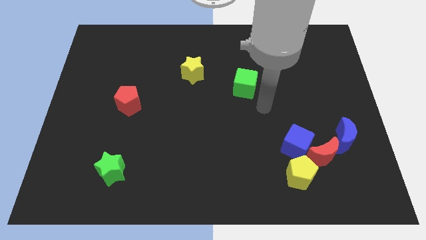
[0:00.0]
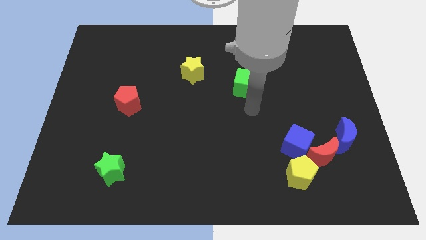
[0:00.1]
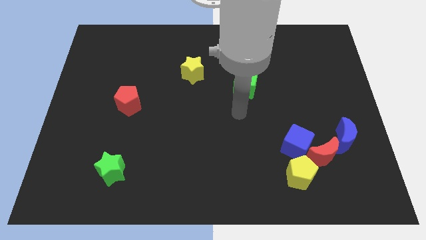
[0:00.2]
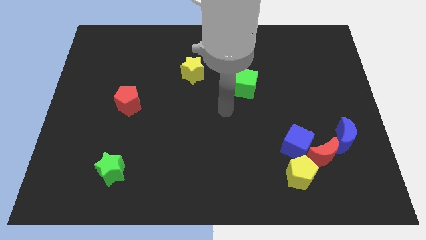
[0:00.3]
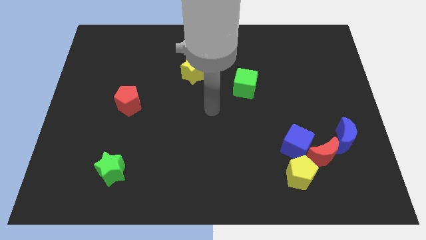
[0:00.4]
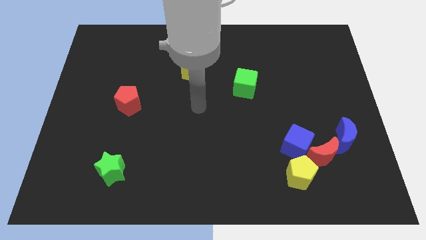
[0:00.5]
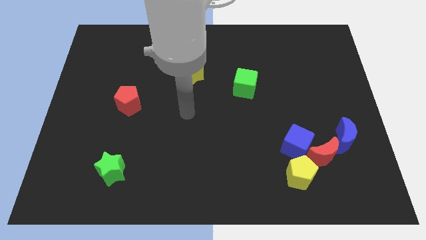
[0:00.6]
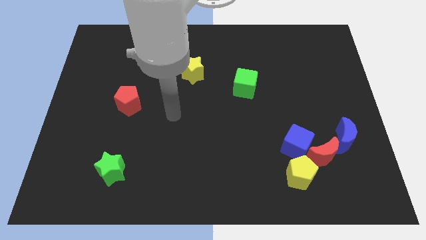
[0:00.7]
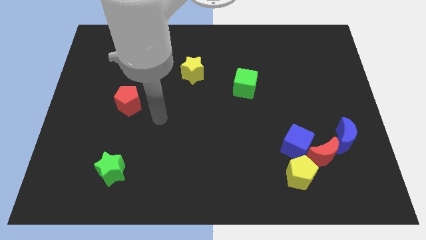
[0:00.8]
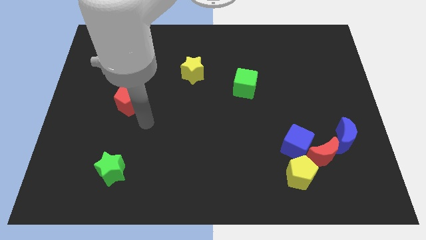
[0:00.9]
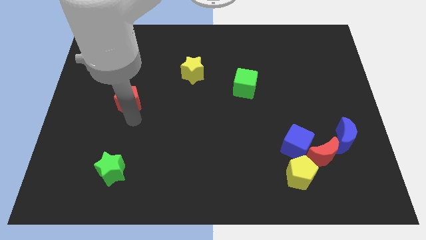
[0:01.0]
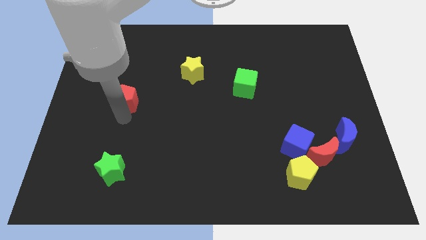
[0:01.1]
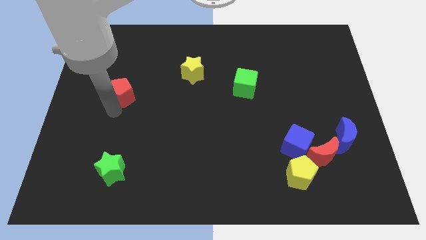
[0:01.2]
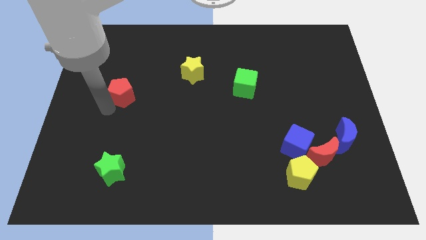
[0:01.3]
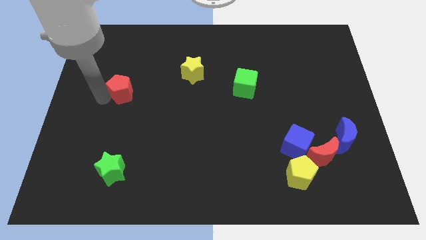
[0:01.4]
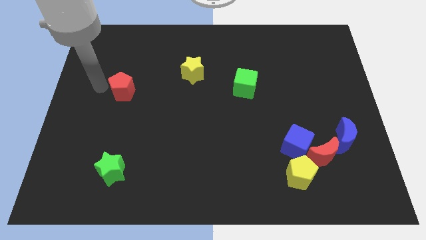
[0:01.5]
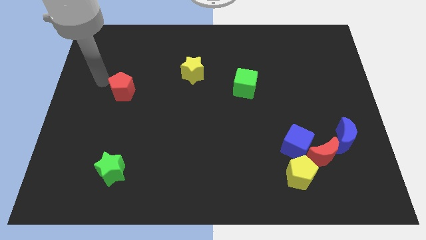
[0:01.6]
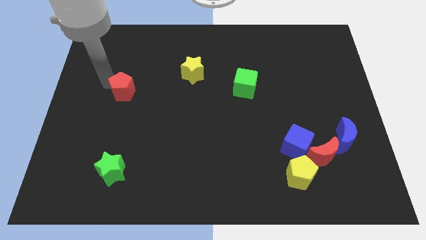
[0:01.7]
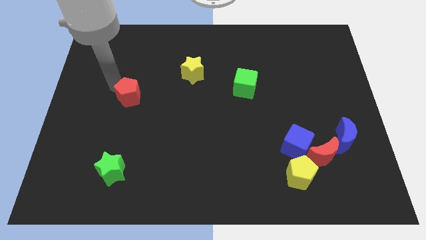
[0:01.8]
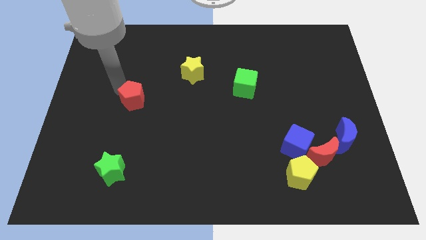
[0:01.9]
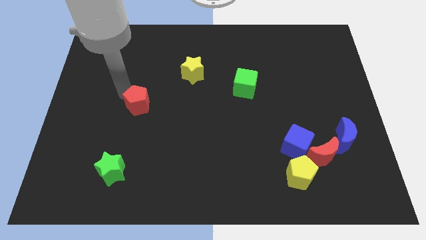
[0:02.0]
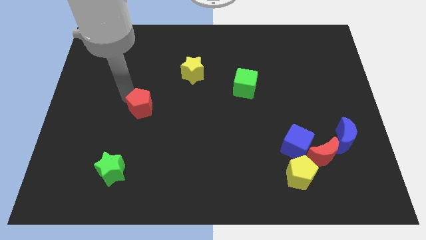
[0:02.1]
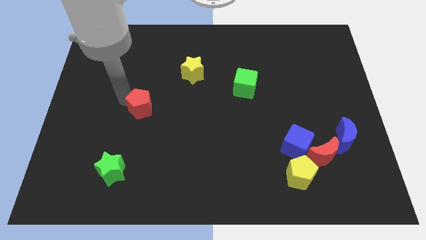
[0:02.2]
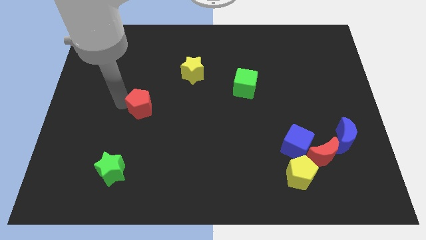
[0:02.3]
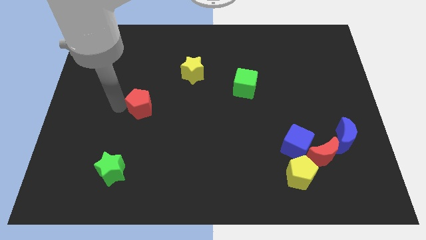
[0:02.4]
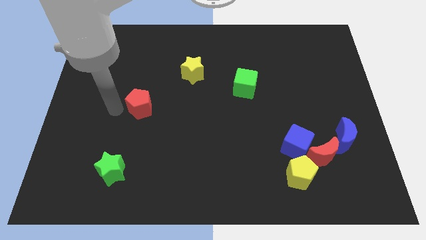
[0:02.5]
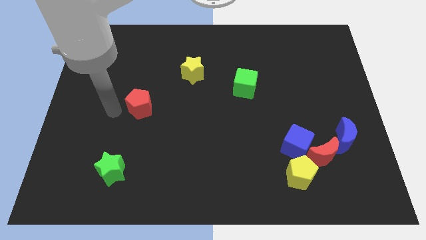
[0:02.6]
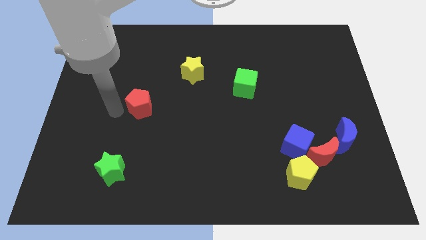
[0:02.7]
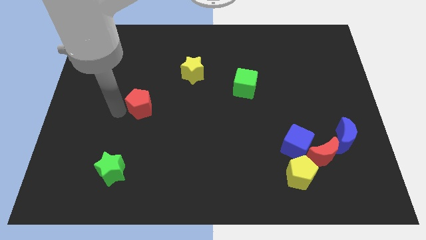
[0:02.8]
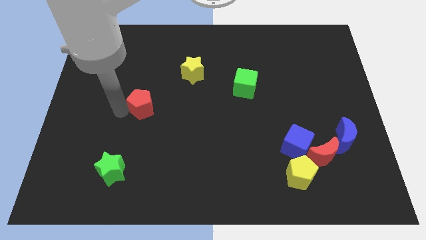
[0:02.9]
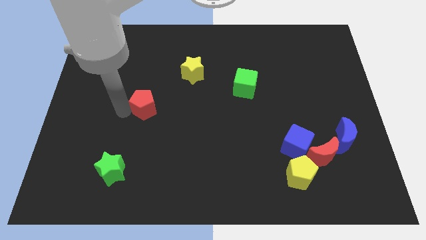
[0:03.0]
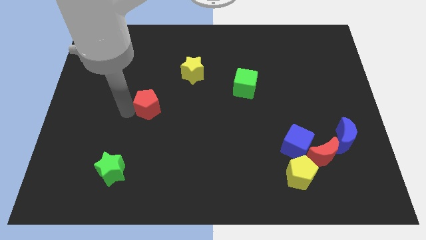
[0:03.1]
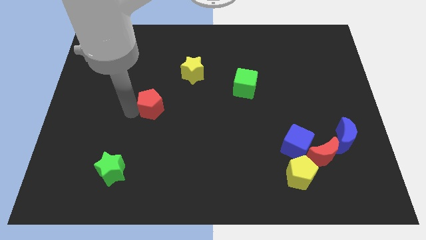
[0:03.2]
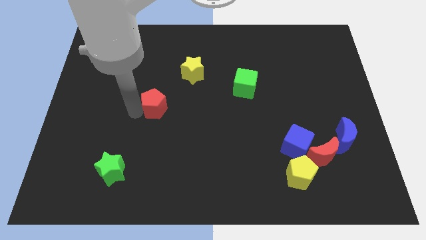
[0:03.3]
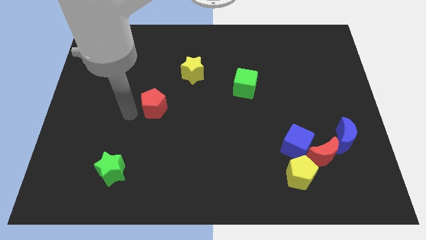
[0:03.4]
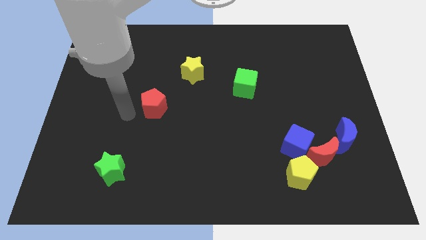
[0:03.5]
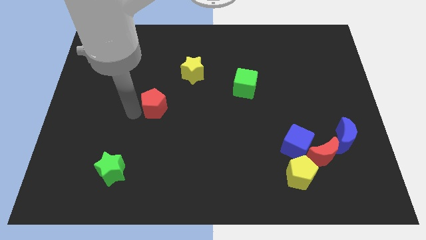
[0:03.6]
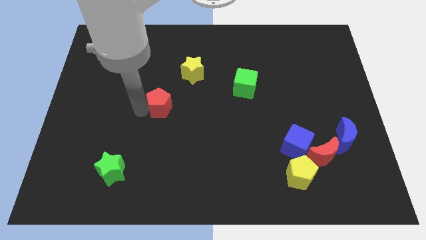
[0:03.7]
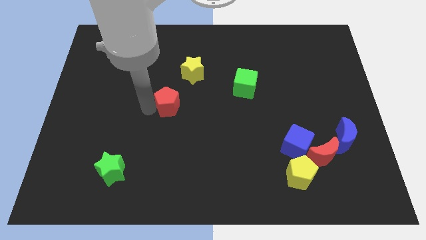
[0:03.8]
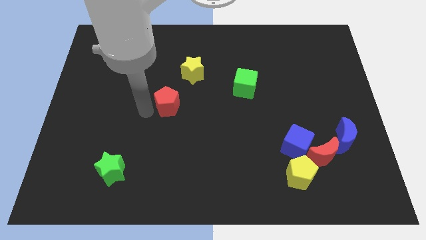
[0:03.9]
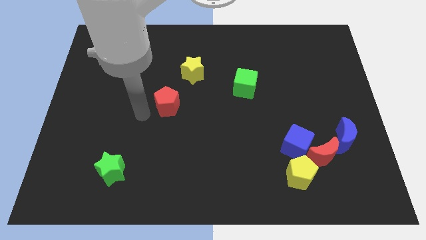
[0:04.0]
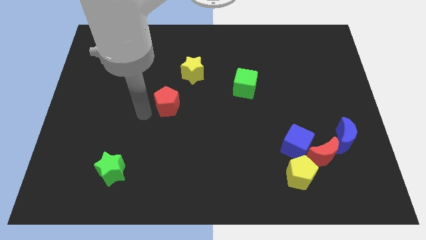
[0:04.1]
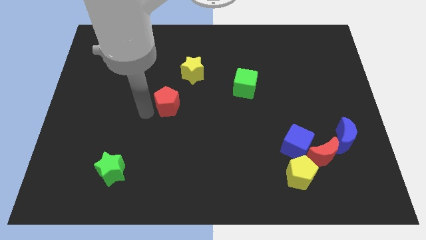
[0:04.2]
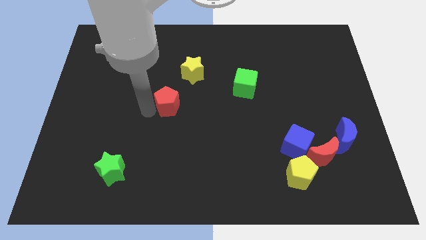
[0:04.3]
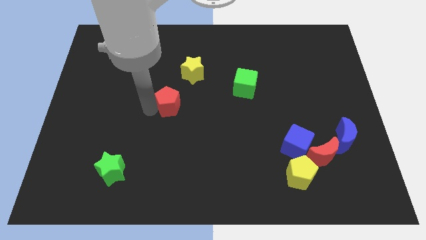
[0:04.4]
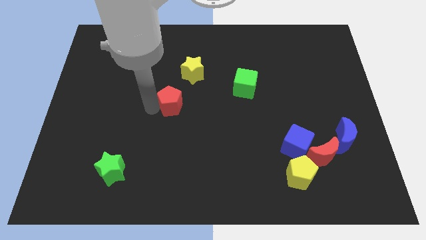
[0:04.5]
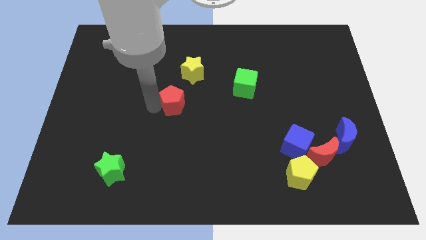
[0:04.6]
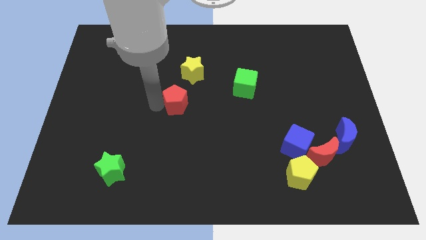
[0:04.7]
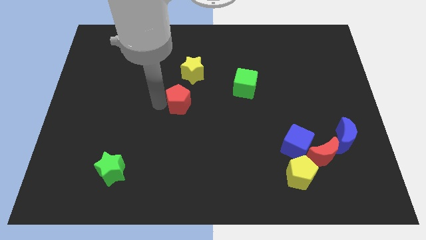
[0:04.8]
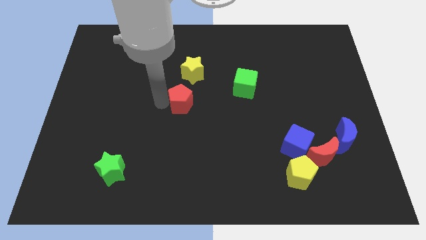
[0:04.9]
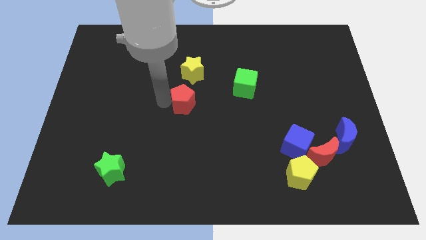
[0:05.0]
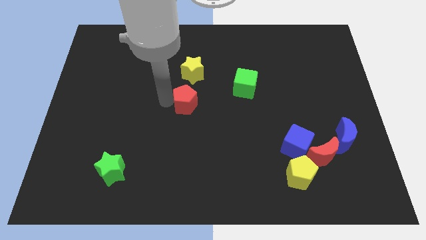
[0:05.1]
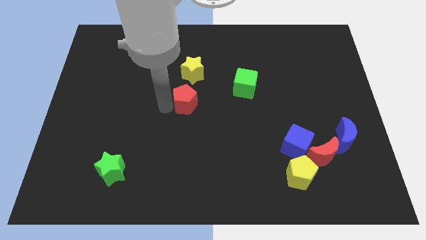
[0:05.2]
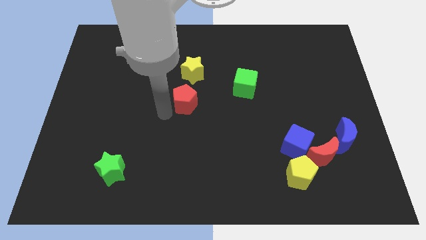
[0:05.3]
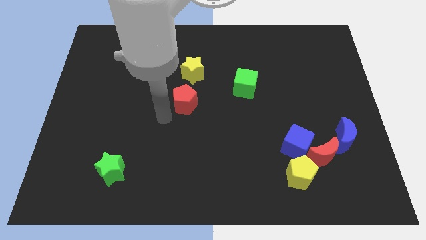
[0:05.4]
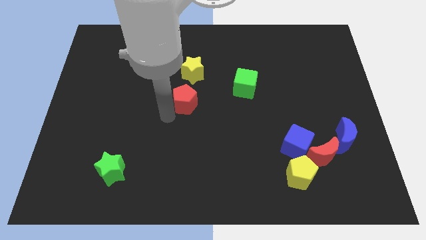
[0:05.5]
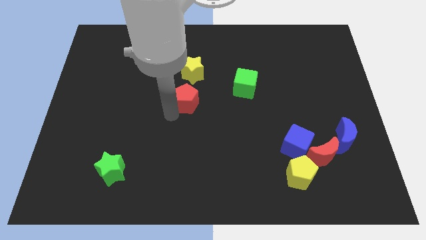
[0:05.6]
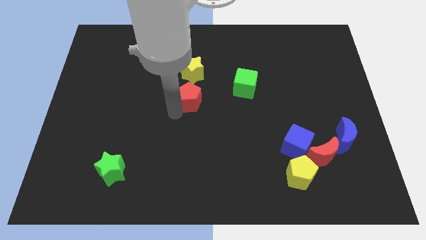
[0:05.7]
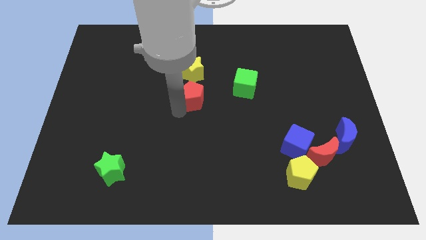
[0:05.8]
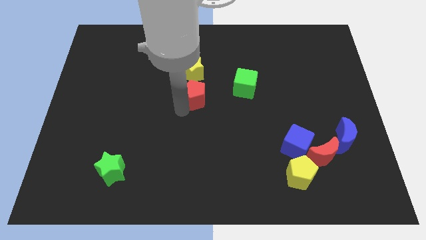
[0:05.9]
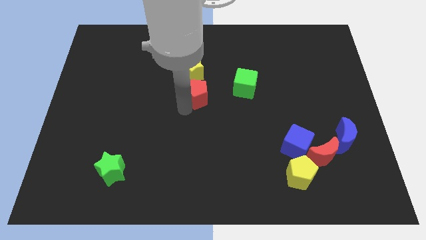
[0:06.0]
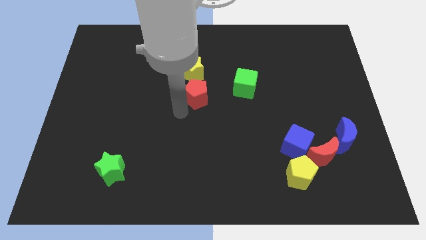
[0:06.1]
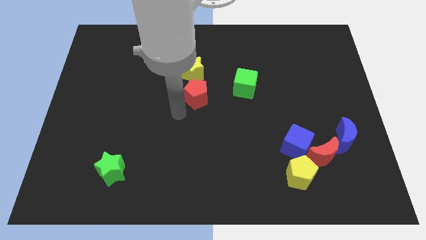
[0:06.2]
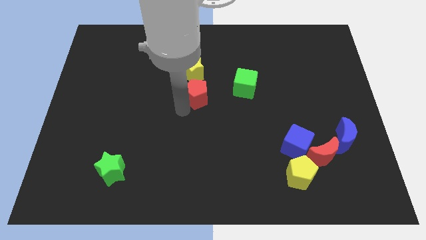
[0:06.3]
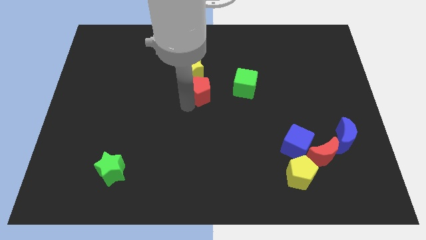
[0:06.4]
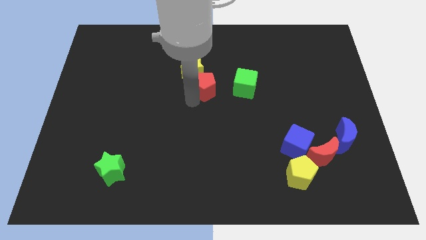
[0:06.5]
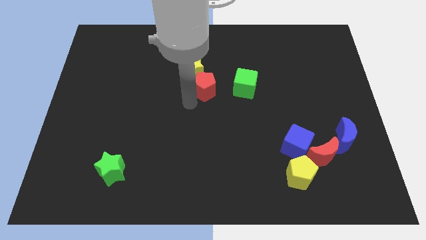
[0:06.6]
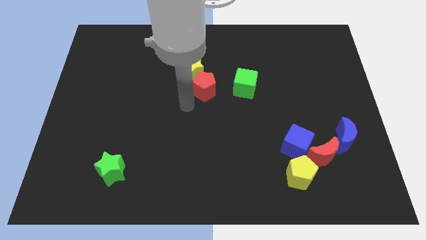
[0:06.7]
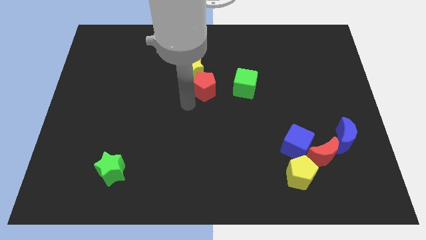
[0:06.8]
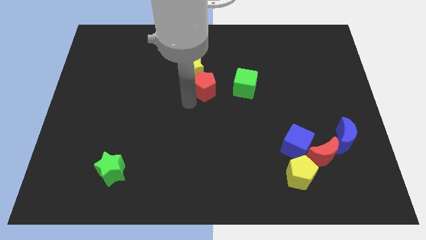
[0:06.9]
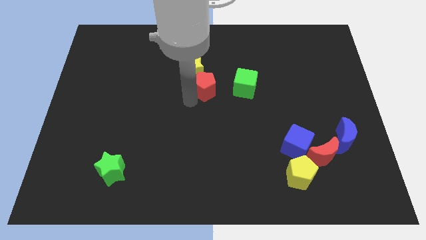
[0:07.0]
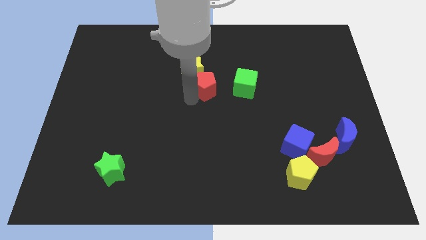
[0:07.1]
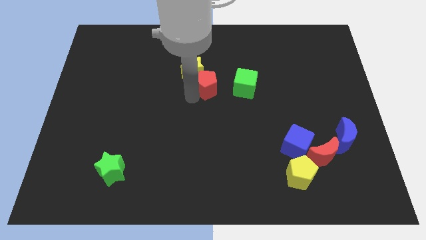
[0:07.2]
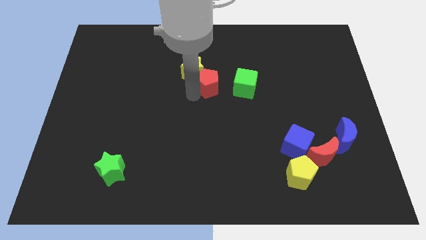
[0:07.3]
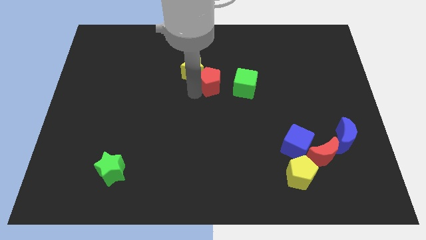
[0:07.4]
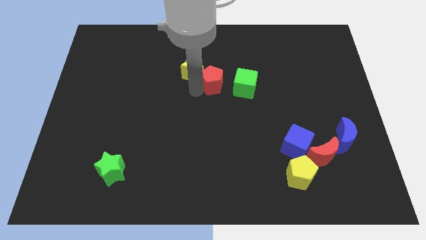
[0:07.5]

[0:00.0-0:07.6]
push the red pentagon to the top left side of the green cube

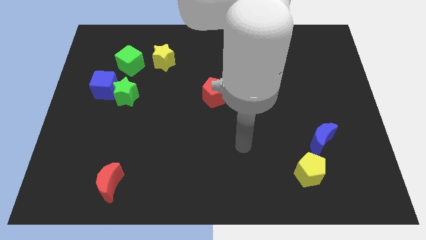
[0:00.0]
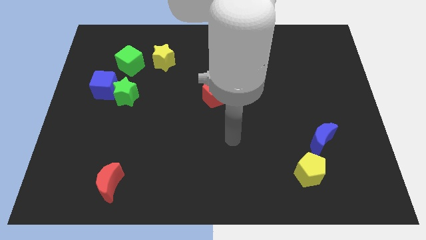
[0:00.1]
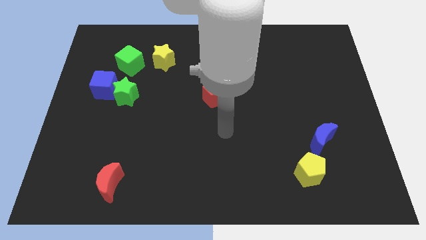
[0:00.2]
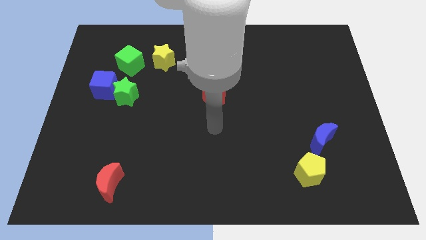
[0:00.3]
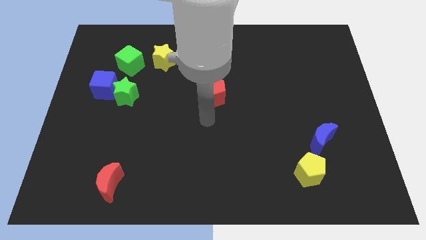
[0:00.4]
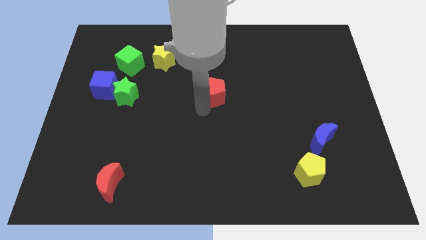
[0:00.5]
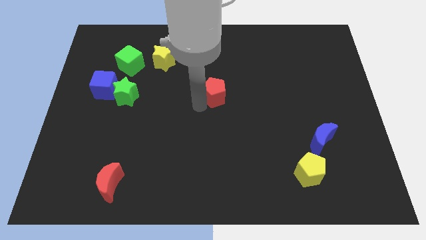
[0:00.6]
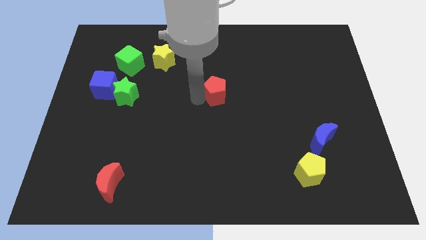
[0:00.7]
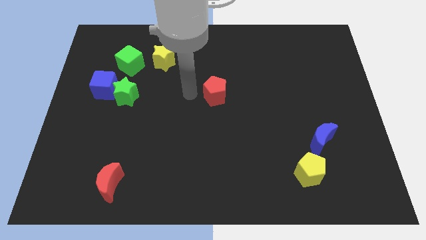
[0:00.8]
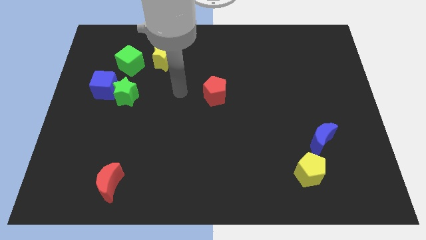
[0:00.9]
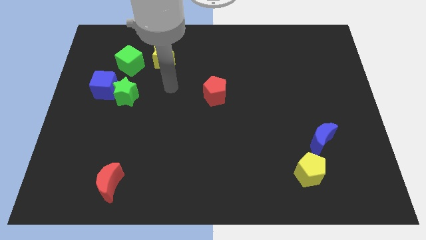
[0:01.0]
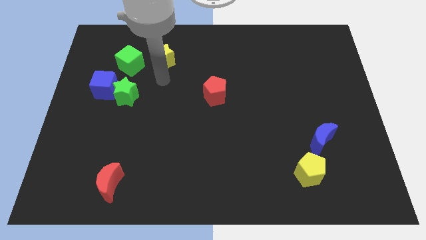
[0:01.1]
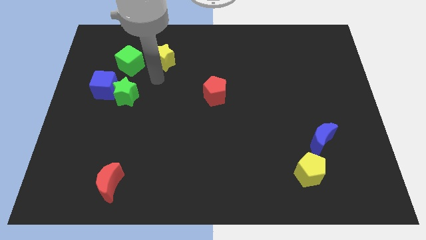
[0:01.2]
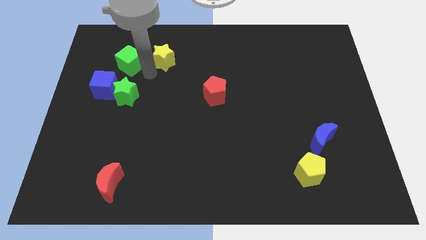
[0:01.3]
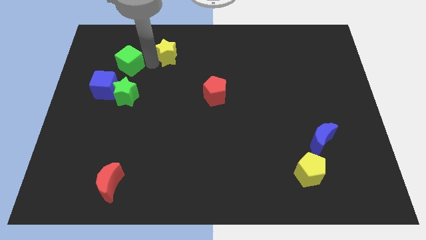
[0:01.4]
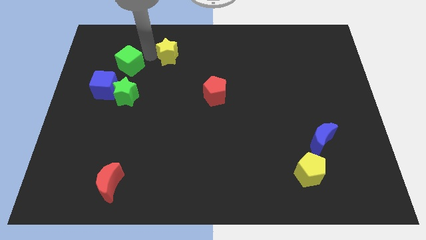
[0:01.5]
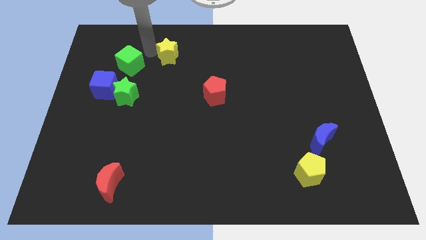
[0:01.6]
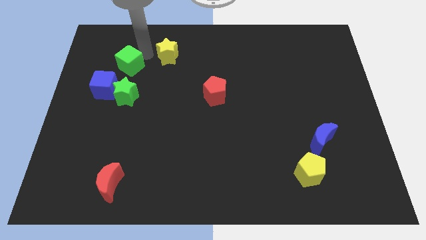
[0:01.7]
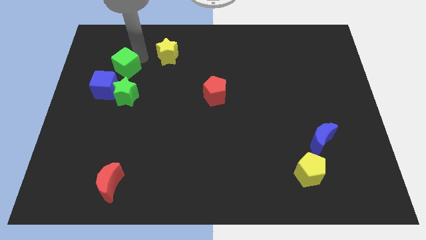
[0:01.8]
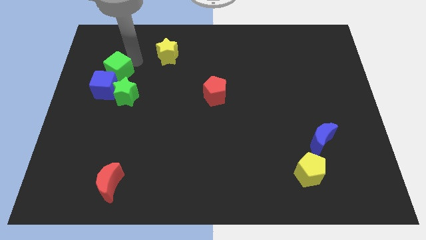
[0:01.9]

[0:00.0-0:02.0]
put the green cube to the top left side of the green star
